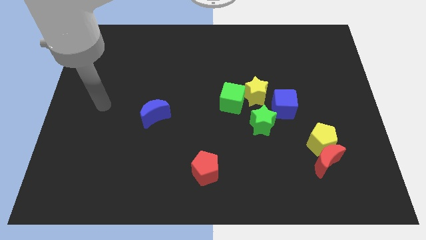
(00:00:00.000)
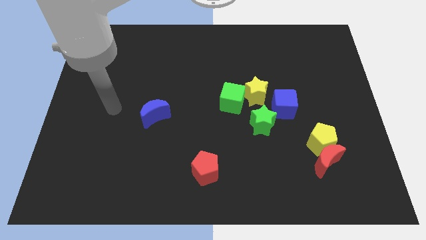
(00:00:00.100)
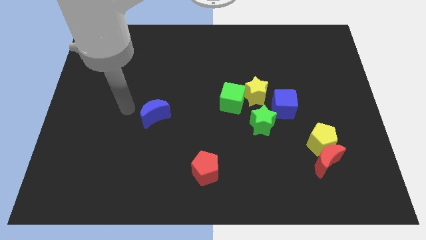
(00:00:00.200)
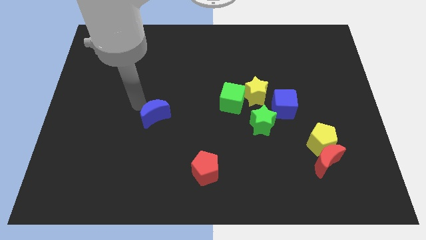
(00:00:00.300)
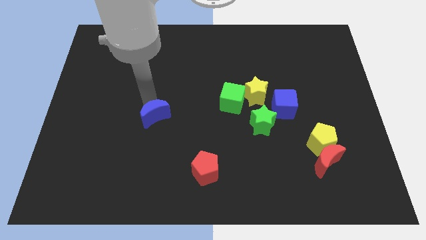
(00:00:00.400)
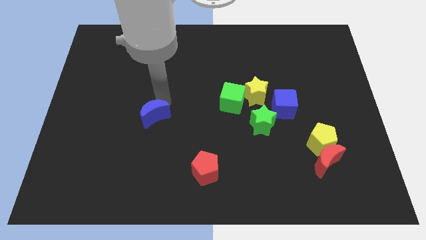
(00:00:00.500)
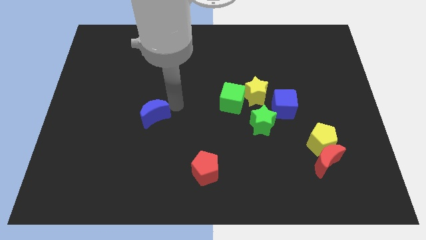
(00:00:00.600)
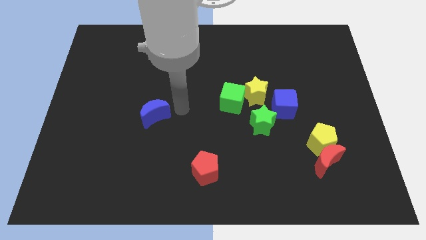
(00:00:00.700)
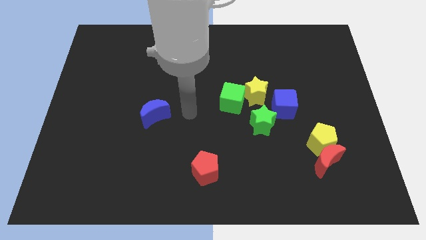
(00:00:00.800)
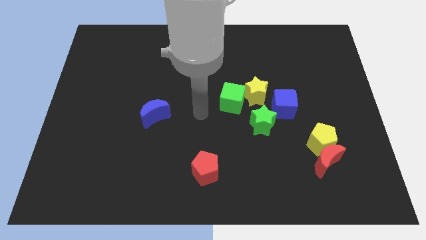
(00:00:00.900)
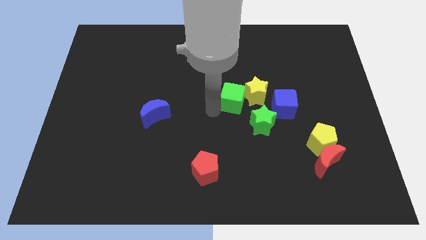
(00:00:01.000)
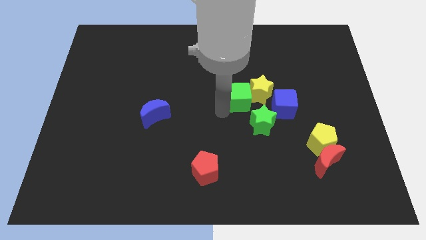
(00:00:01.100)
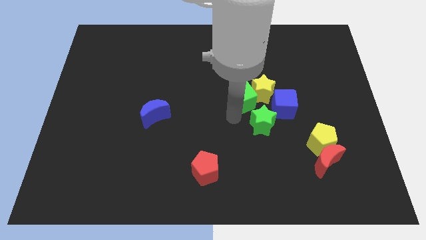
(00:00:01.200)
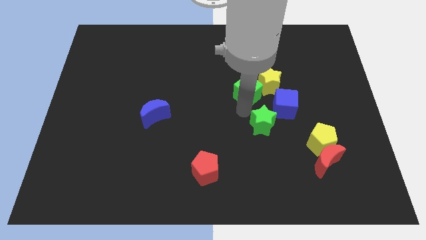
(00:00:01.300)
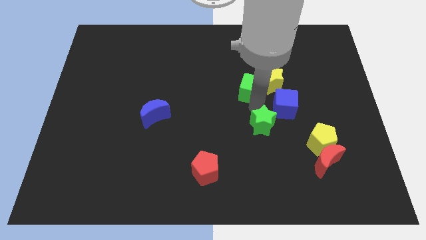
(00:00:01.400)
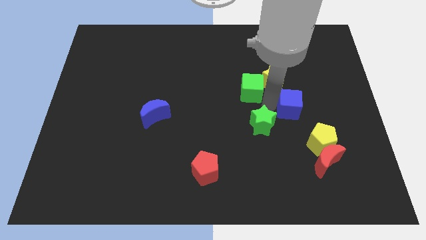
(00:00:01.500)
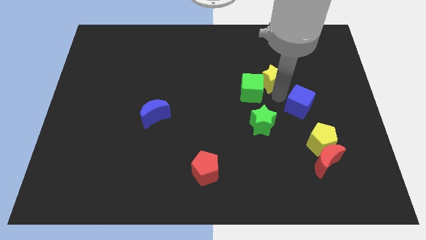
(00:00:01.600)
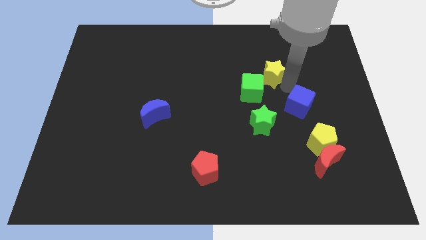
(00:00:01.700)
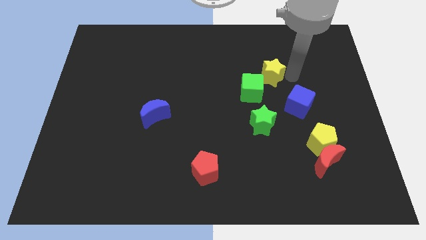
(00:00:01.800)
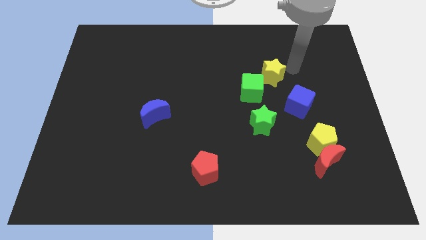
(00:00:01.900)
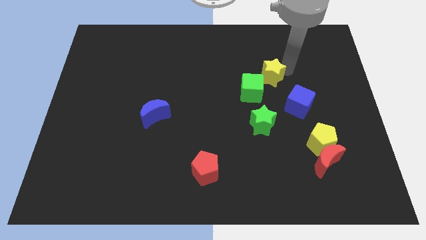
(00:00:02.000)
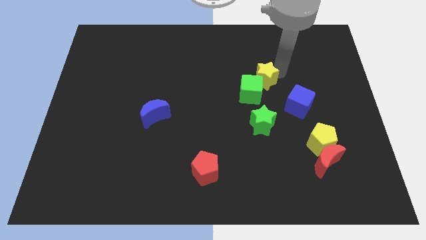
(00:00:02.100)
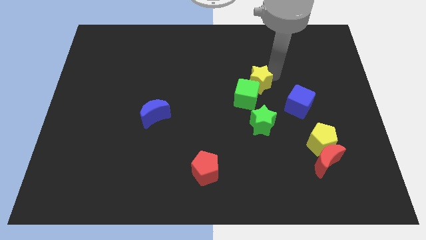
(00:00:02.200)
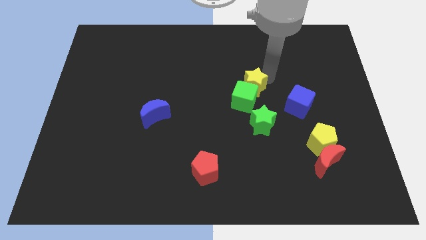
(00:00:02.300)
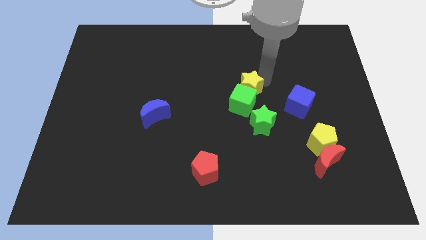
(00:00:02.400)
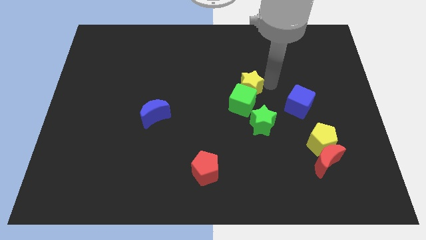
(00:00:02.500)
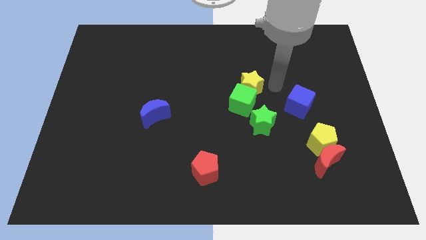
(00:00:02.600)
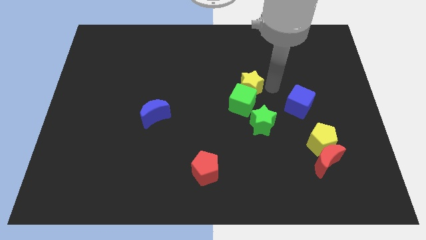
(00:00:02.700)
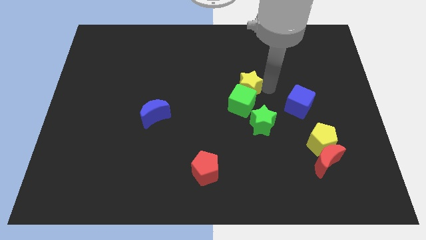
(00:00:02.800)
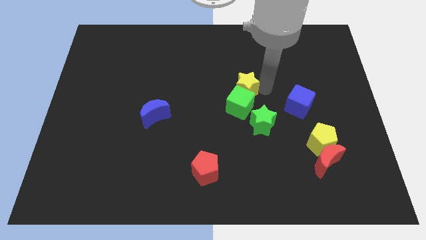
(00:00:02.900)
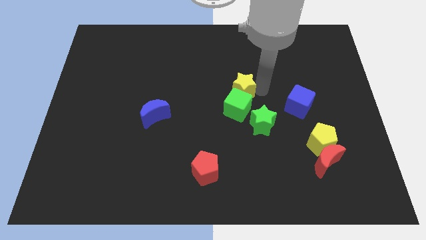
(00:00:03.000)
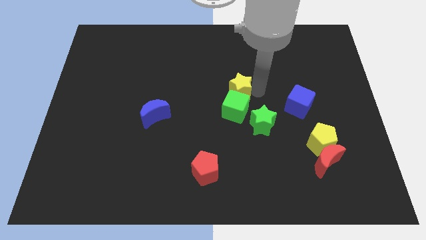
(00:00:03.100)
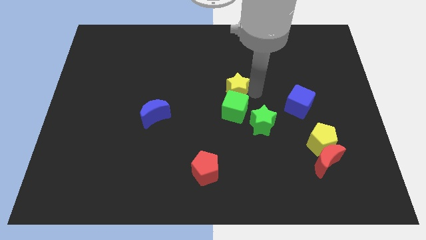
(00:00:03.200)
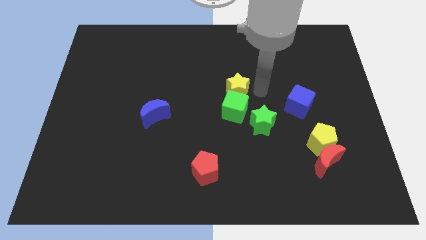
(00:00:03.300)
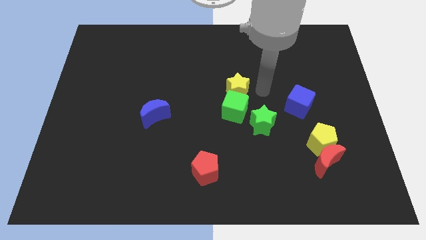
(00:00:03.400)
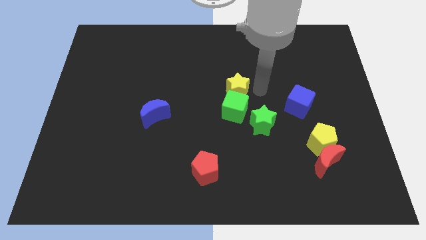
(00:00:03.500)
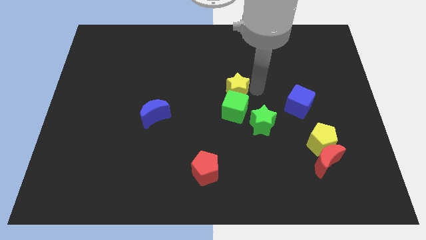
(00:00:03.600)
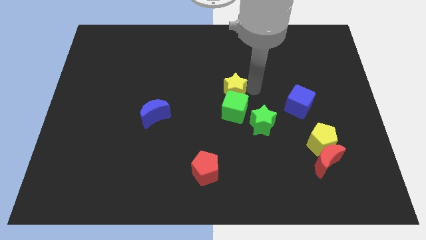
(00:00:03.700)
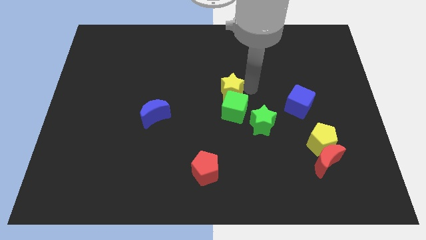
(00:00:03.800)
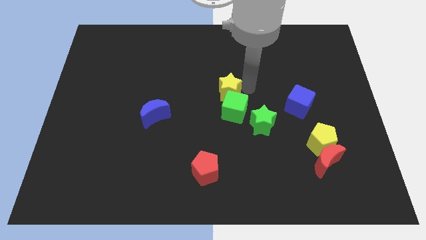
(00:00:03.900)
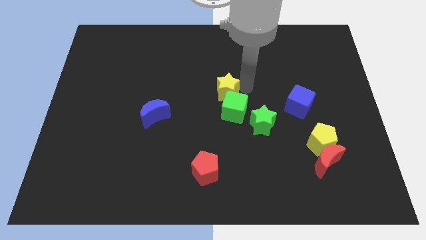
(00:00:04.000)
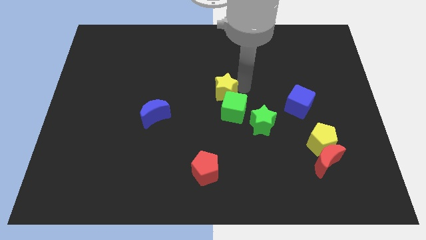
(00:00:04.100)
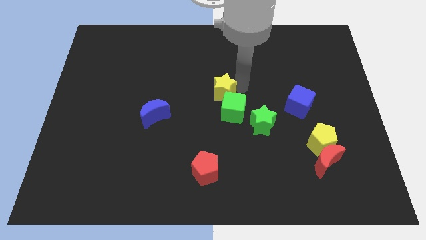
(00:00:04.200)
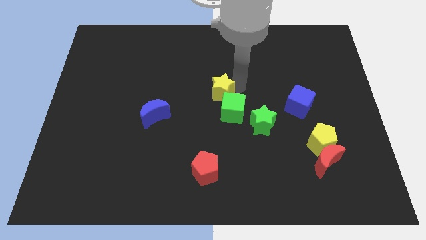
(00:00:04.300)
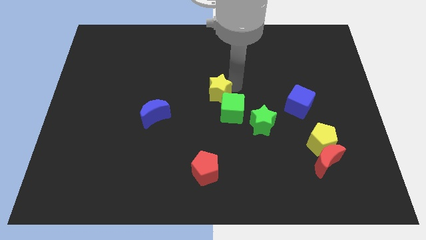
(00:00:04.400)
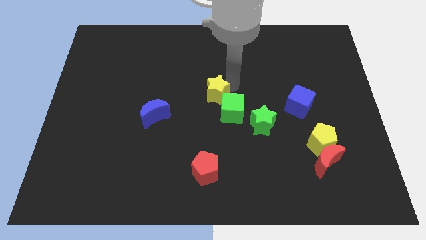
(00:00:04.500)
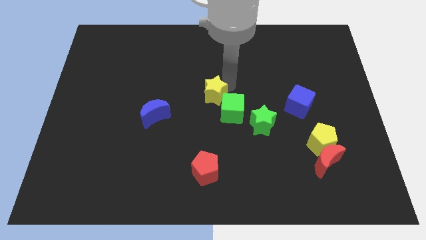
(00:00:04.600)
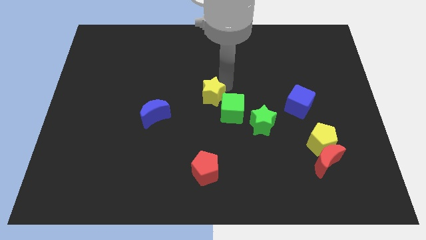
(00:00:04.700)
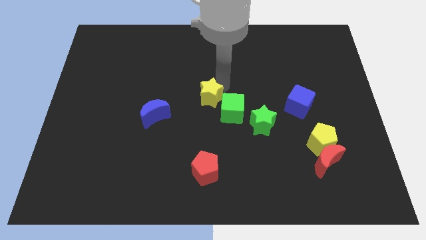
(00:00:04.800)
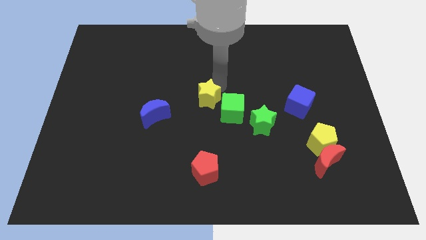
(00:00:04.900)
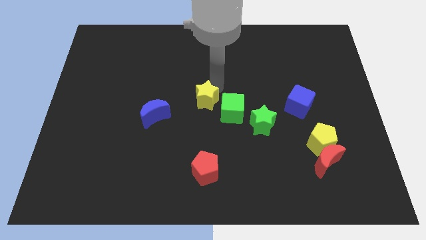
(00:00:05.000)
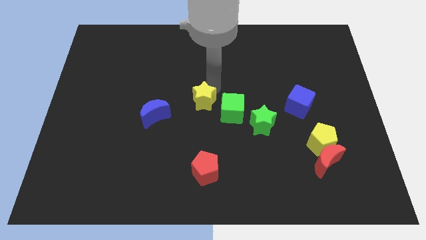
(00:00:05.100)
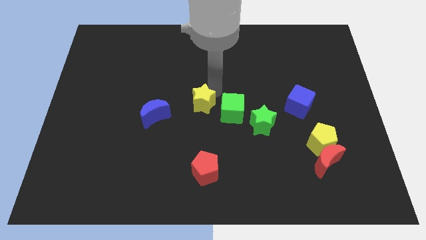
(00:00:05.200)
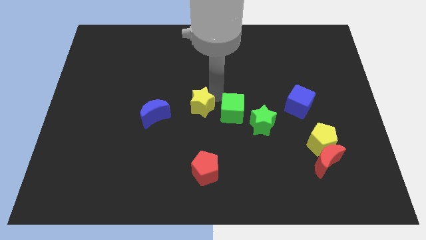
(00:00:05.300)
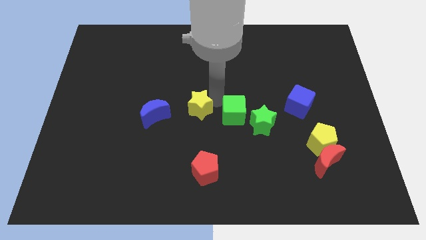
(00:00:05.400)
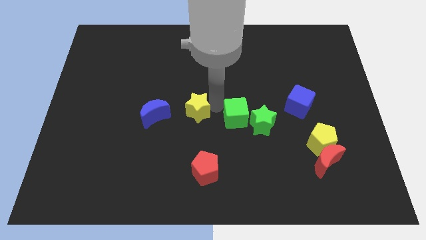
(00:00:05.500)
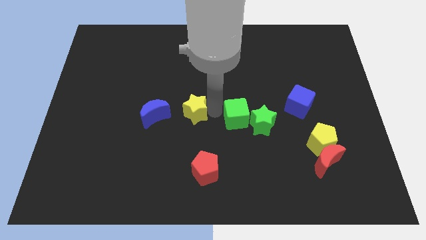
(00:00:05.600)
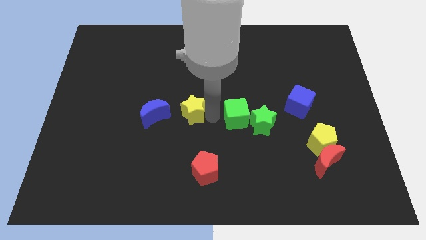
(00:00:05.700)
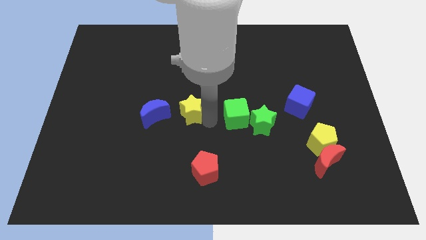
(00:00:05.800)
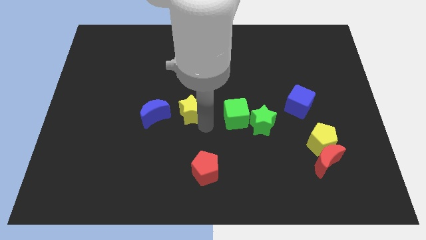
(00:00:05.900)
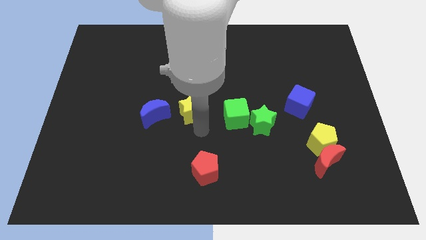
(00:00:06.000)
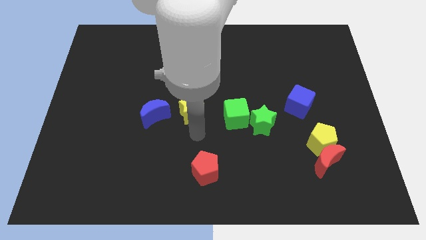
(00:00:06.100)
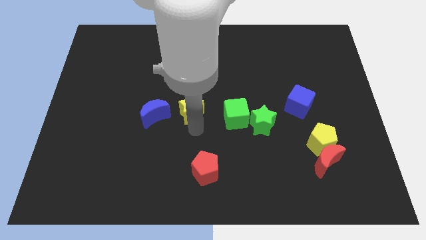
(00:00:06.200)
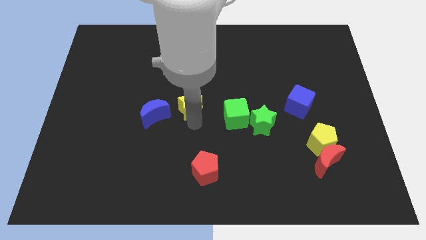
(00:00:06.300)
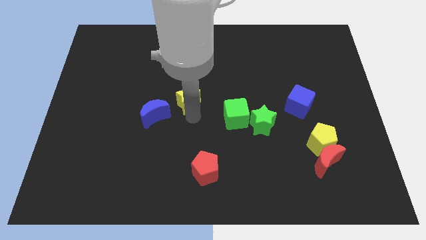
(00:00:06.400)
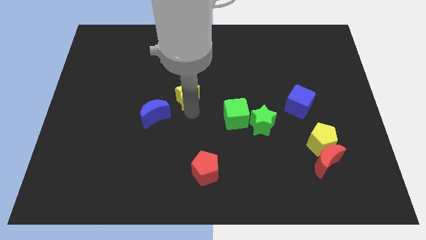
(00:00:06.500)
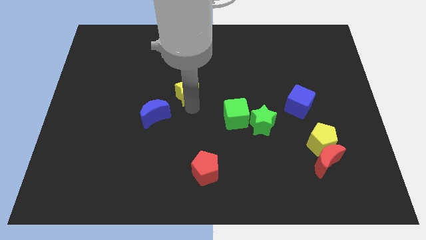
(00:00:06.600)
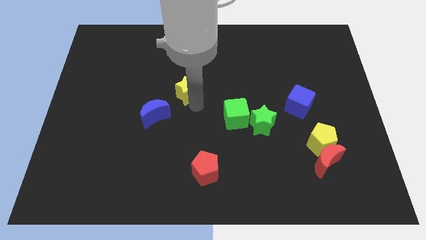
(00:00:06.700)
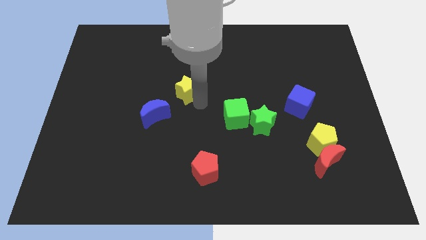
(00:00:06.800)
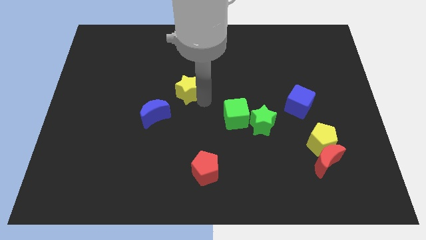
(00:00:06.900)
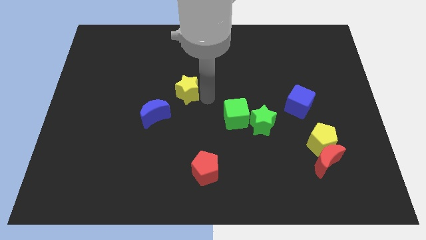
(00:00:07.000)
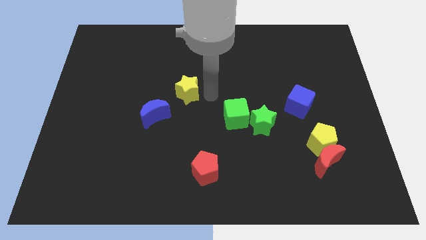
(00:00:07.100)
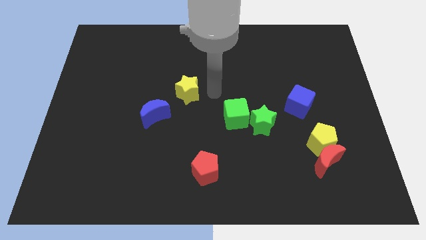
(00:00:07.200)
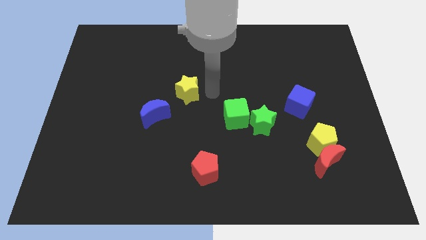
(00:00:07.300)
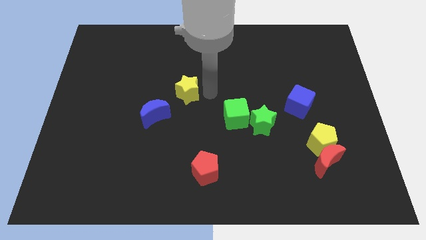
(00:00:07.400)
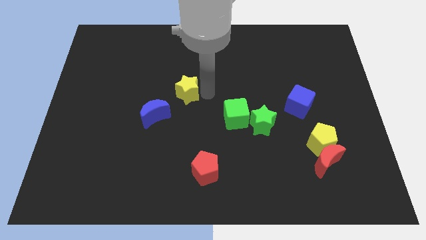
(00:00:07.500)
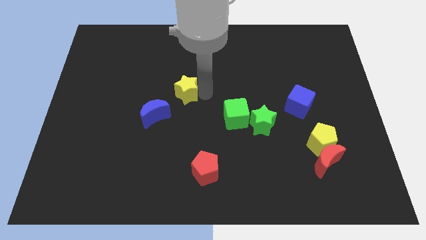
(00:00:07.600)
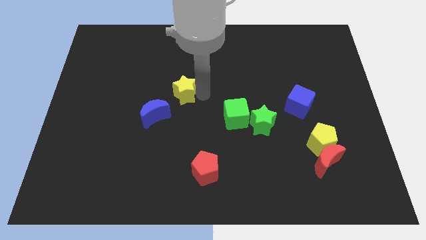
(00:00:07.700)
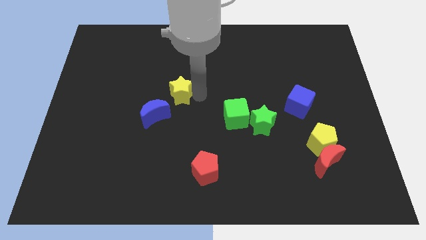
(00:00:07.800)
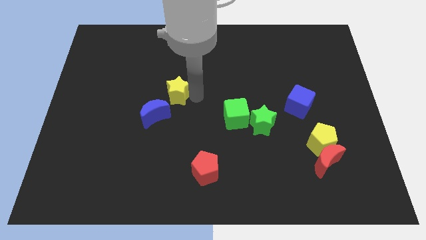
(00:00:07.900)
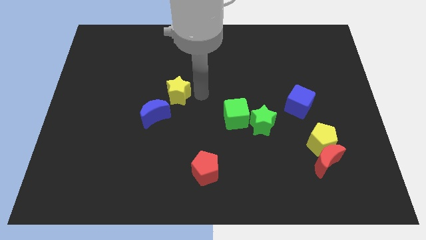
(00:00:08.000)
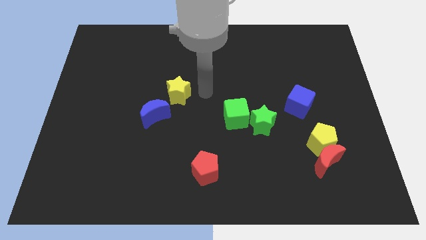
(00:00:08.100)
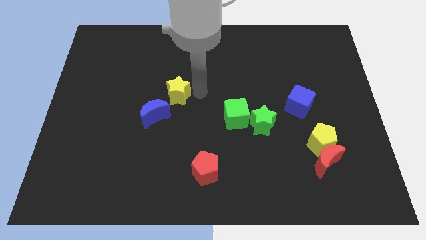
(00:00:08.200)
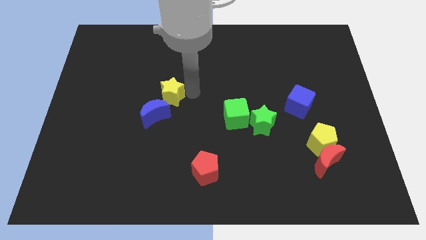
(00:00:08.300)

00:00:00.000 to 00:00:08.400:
slide the yellow star left
